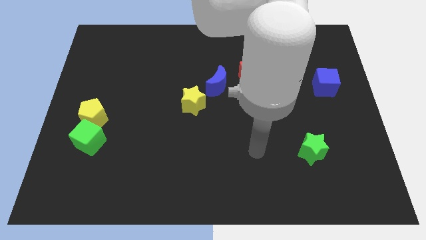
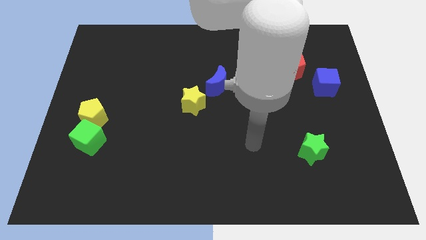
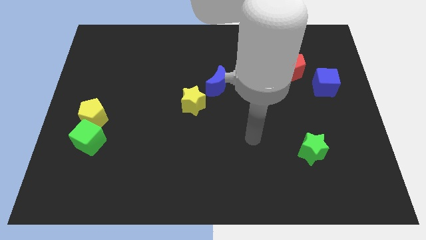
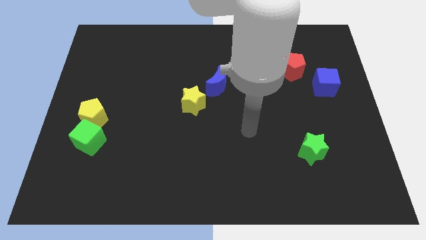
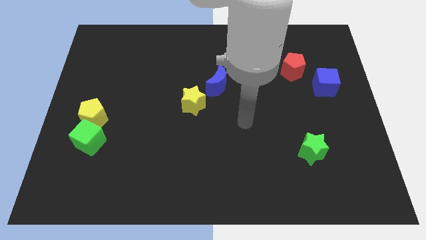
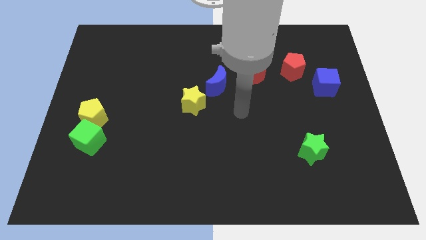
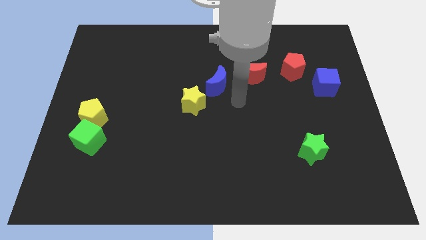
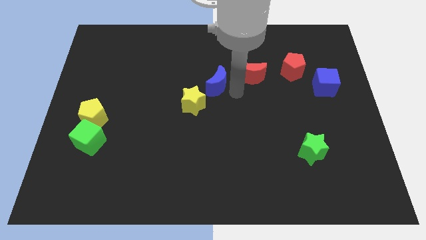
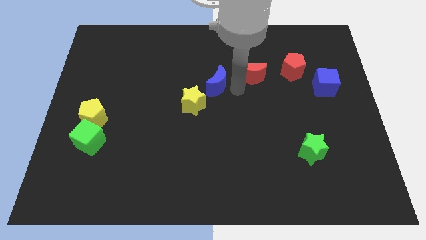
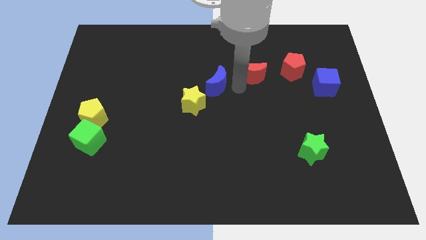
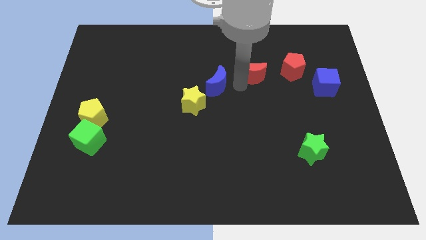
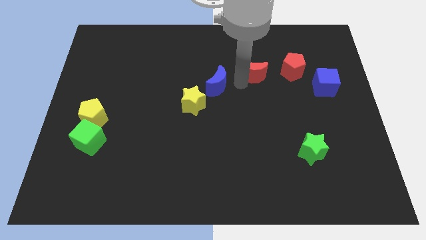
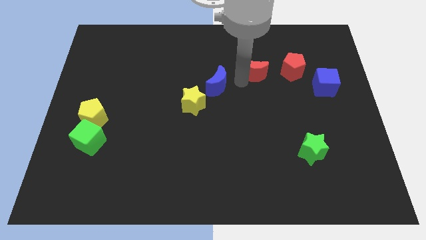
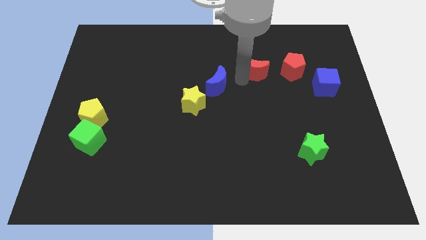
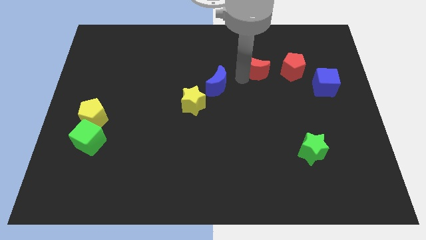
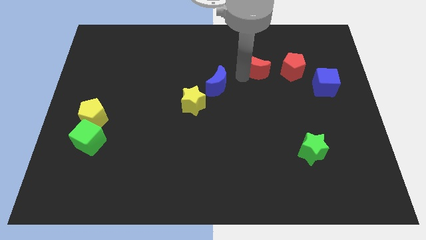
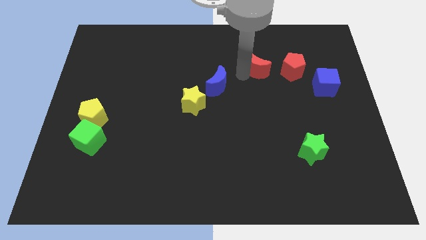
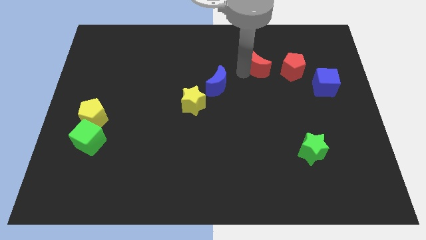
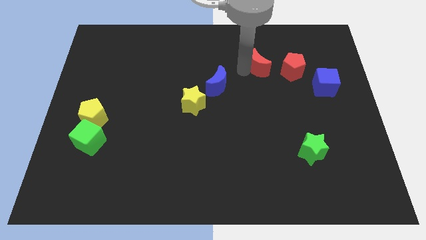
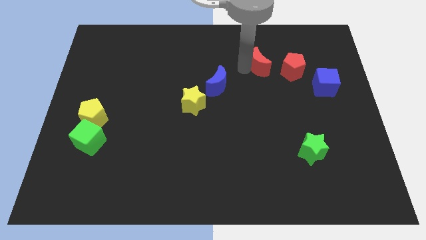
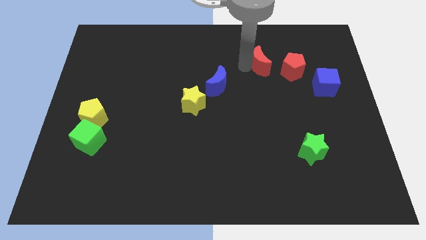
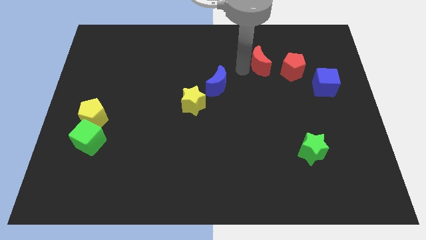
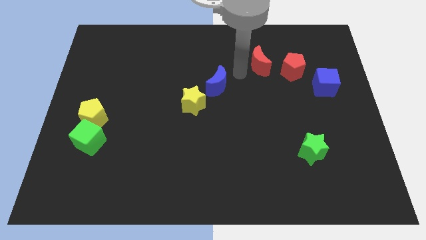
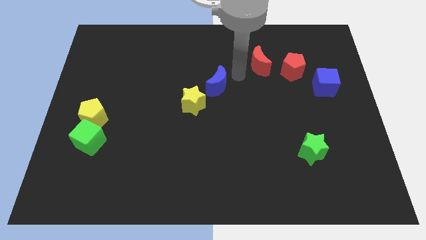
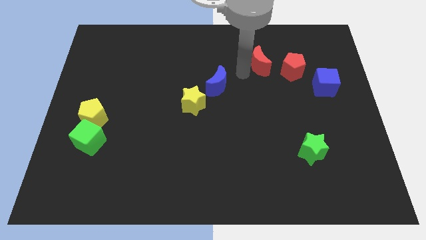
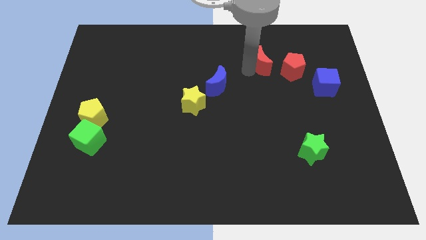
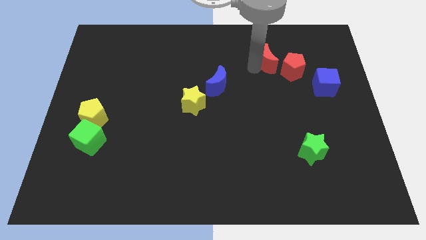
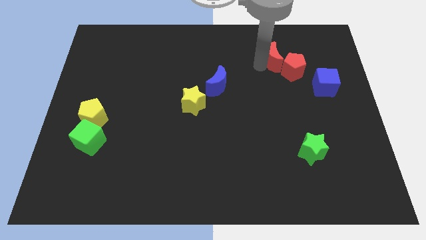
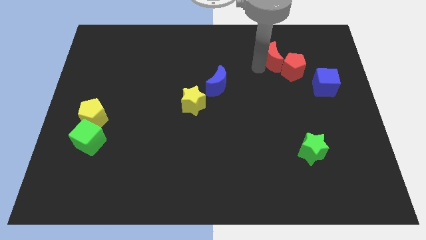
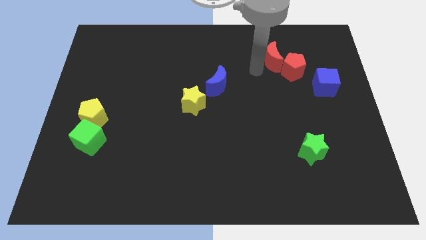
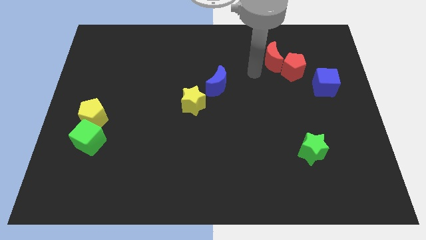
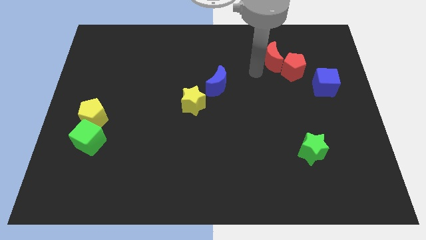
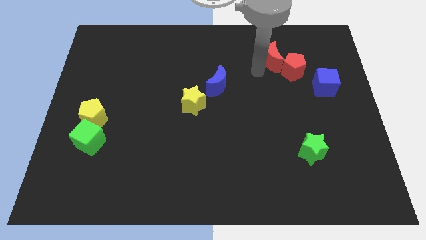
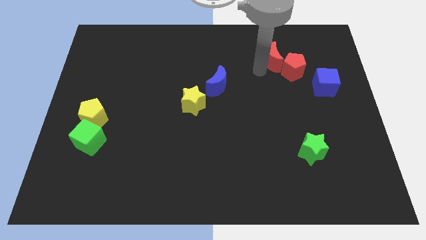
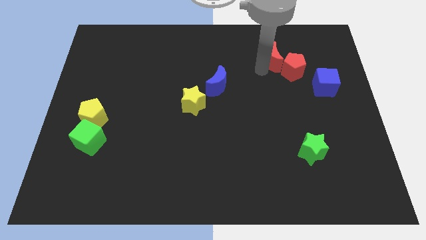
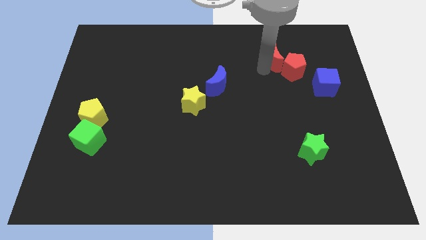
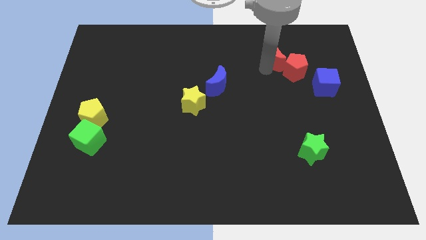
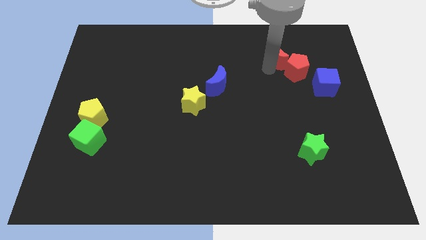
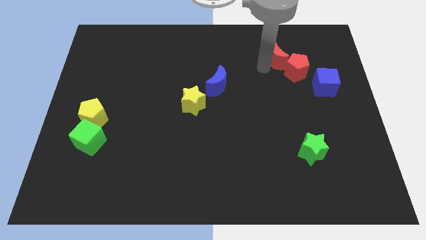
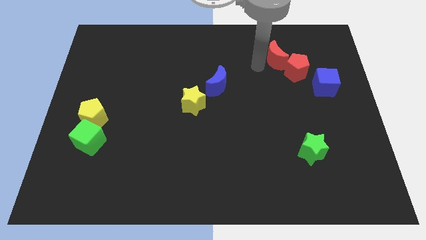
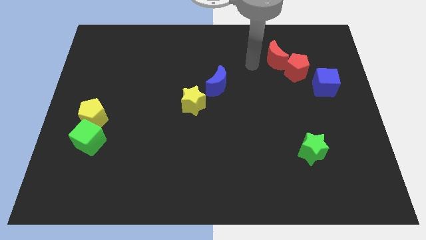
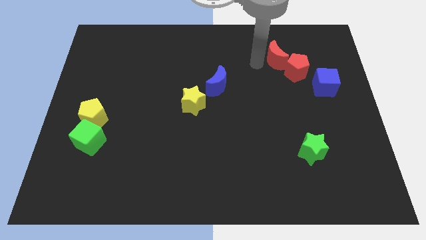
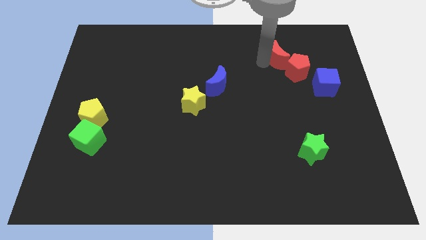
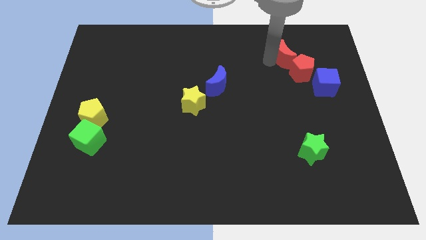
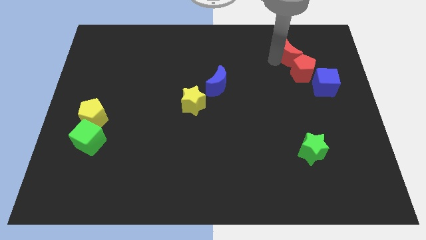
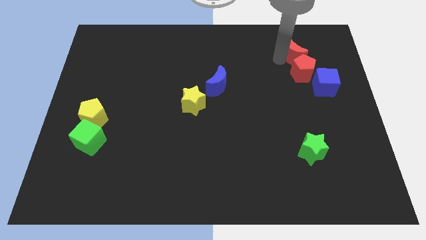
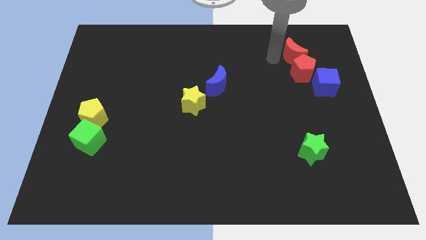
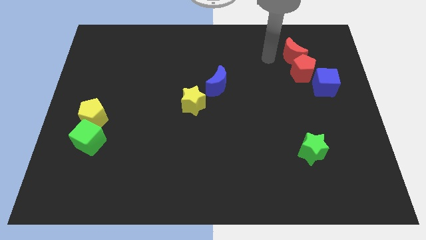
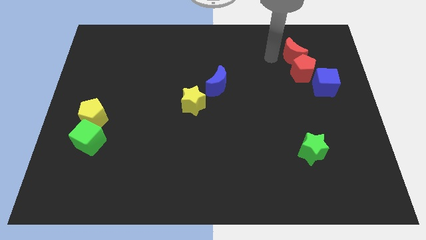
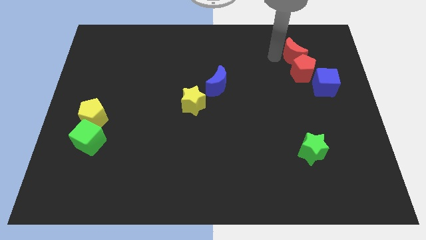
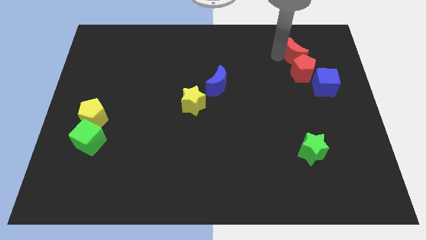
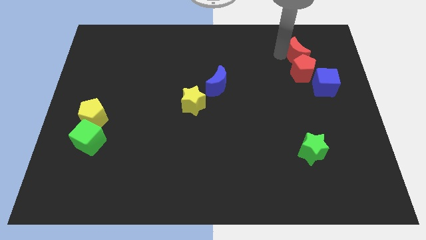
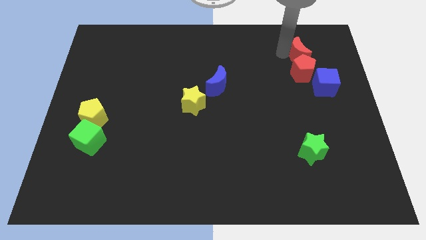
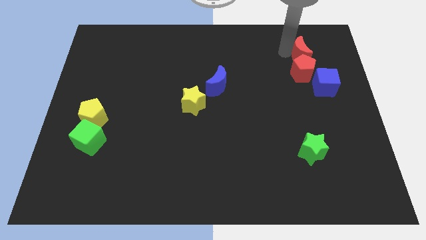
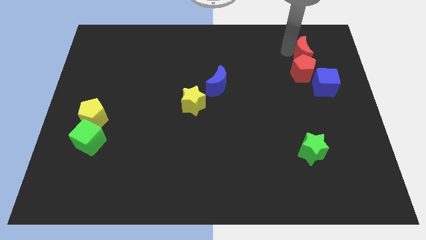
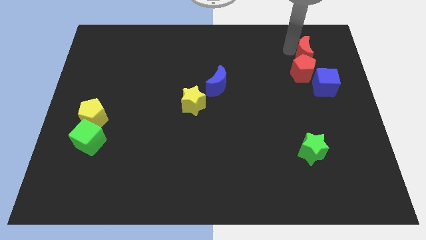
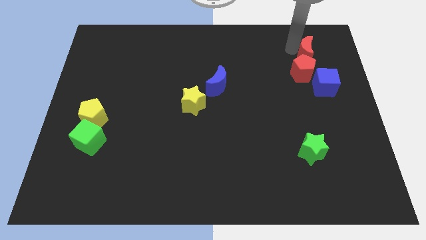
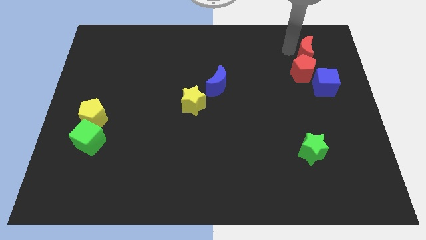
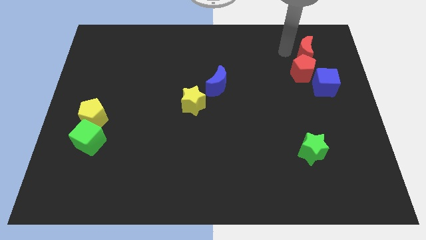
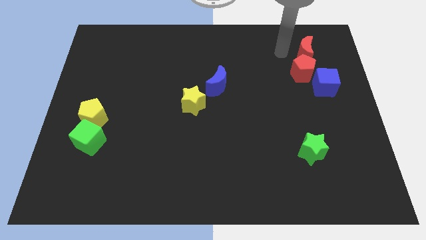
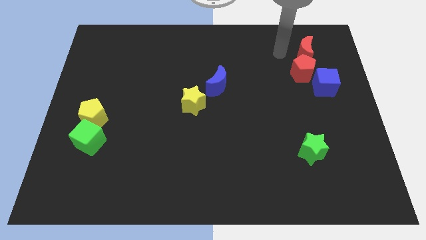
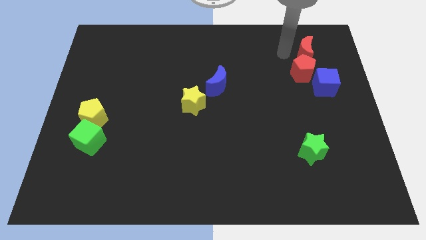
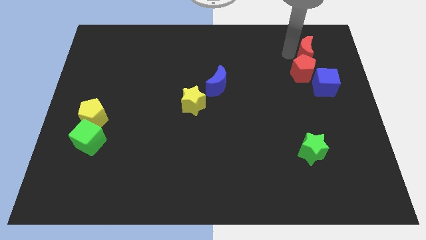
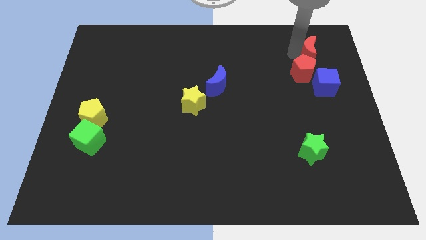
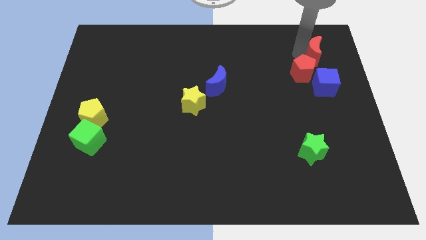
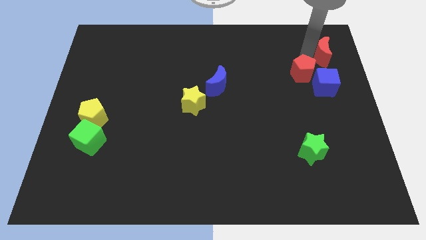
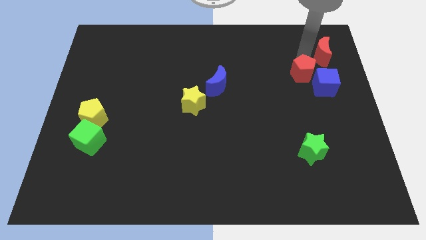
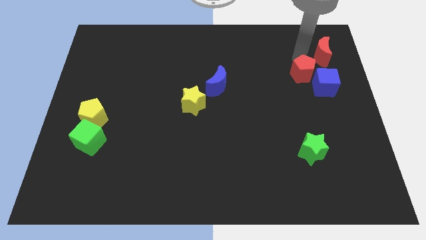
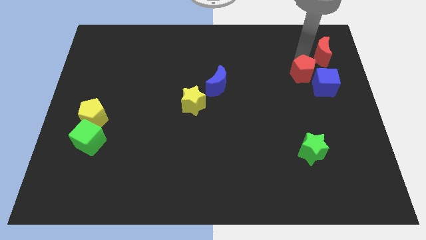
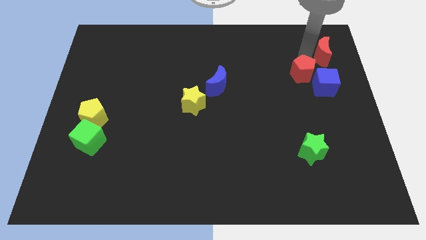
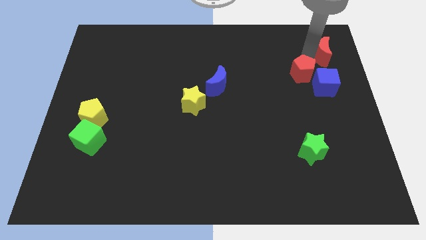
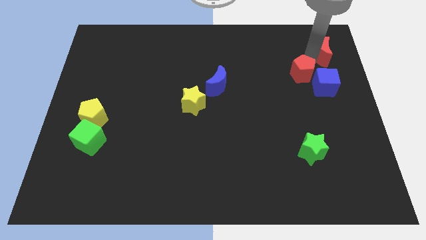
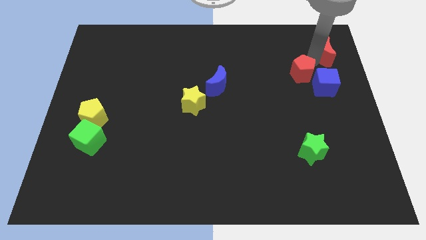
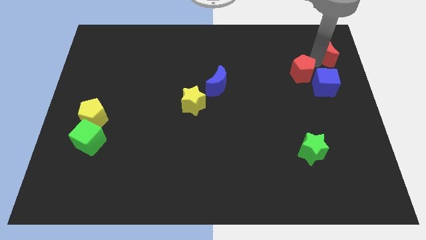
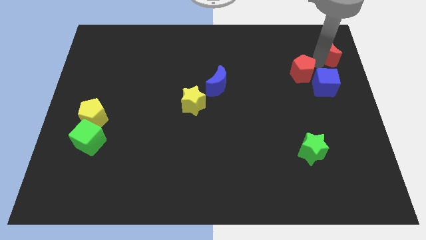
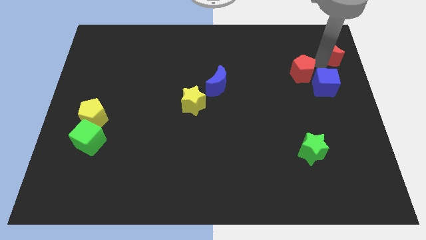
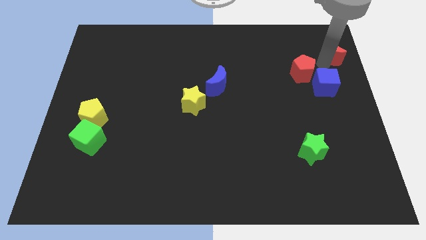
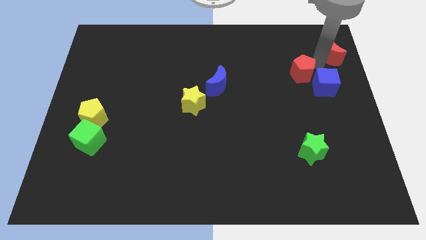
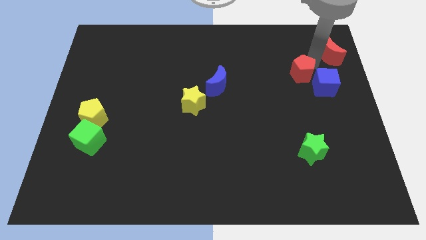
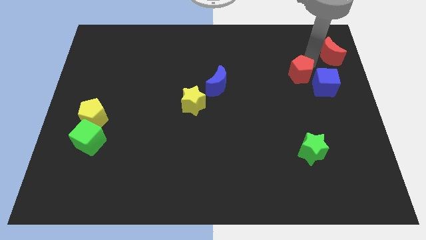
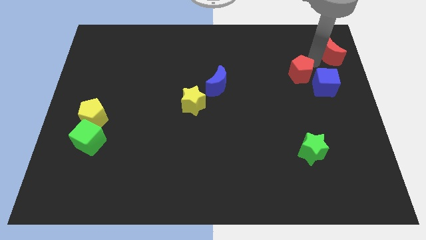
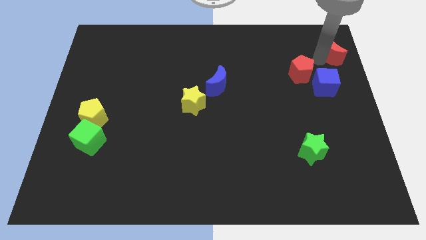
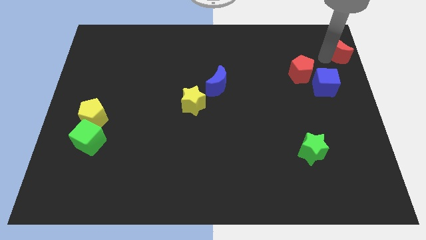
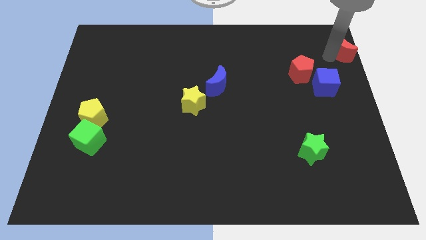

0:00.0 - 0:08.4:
move the red moon to the top right of the board
